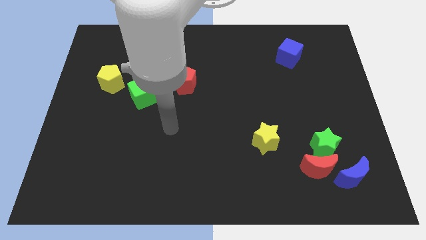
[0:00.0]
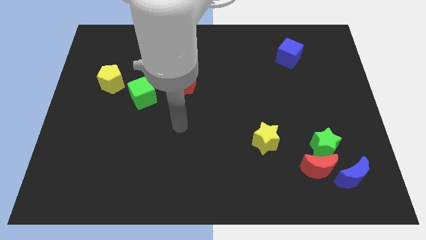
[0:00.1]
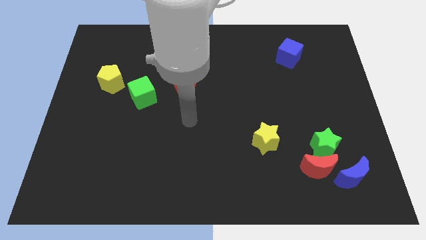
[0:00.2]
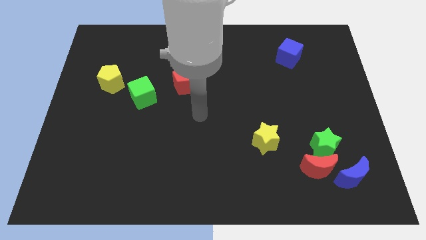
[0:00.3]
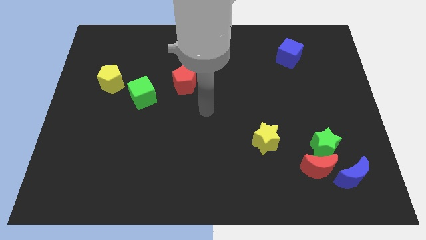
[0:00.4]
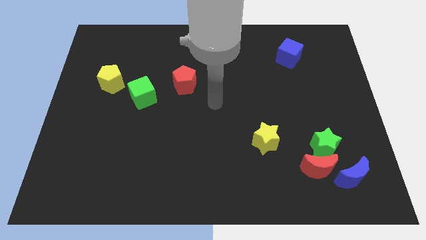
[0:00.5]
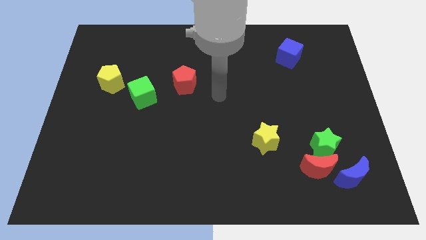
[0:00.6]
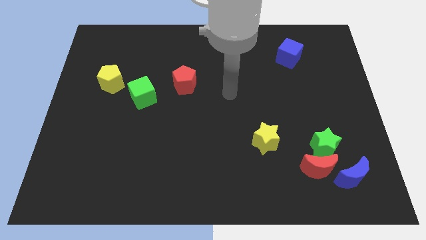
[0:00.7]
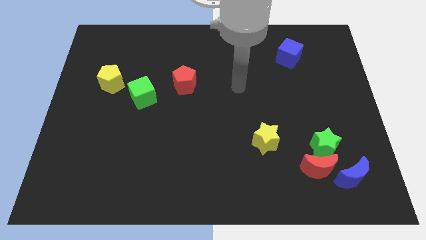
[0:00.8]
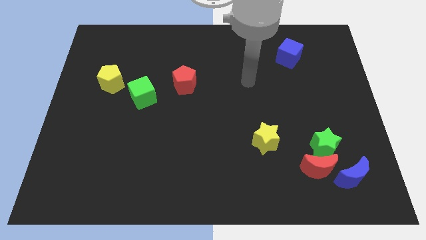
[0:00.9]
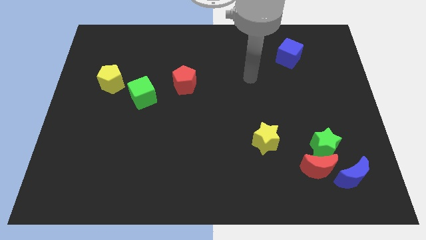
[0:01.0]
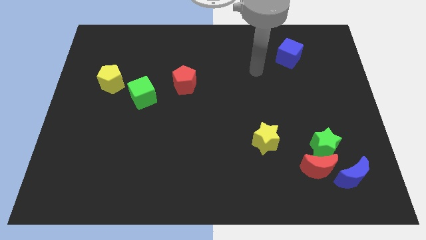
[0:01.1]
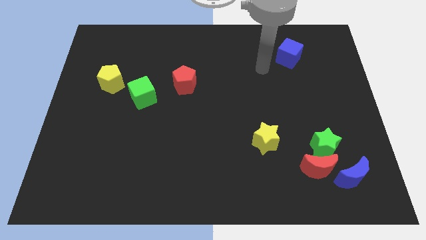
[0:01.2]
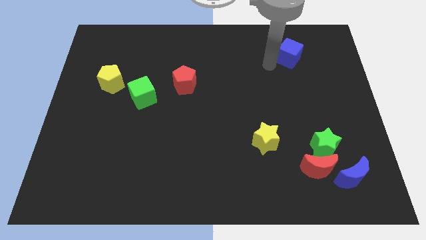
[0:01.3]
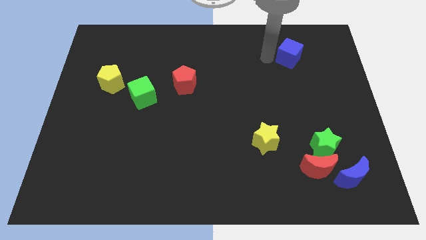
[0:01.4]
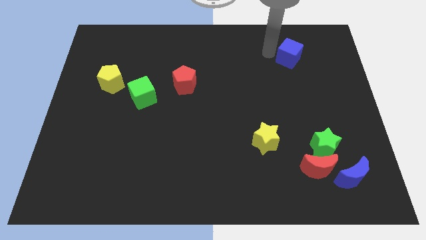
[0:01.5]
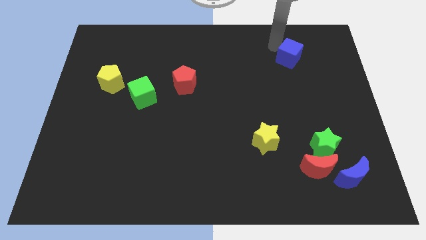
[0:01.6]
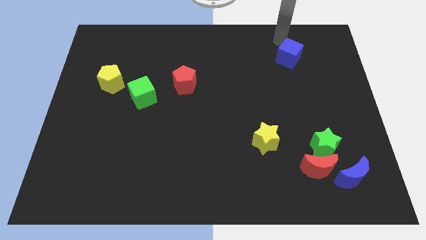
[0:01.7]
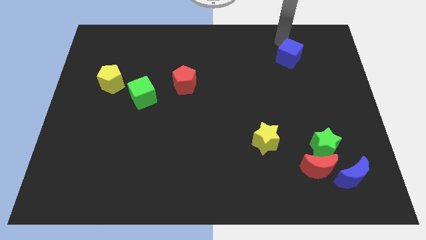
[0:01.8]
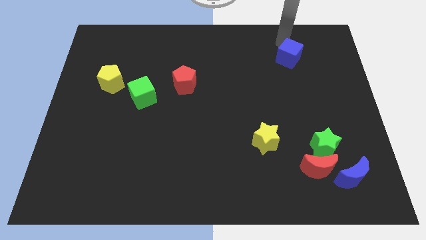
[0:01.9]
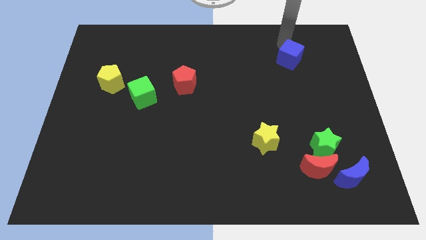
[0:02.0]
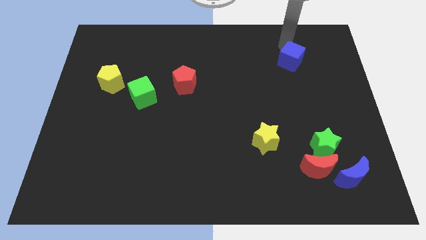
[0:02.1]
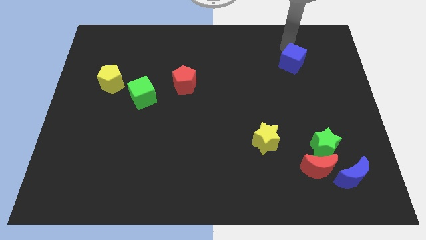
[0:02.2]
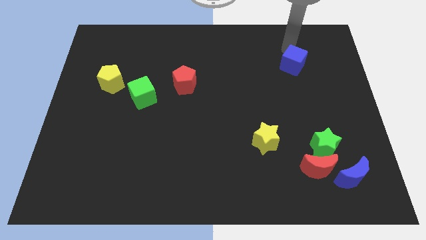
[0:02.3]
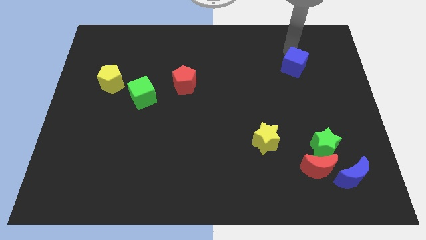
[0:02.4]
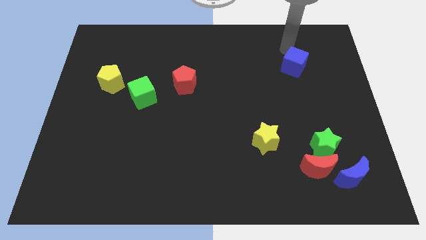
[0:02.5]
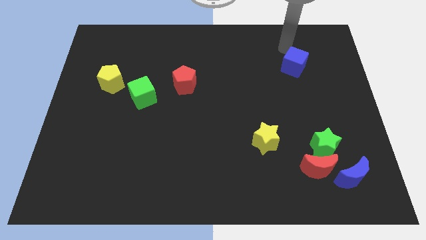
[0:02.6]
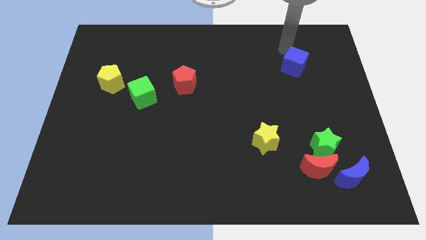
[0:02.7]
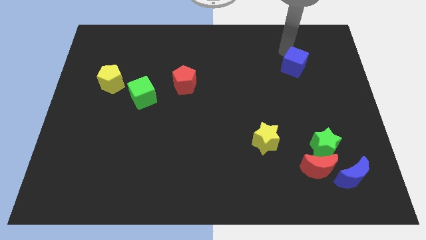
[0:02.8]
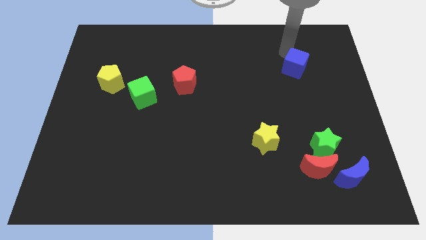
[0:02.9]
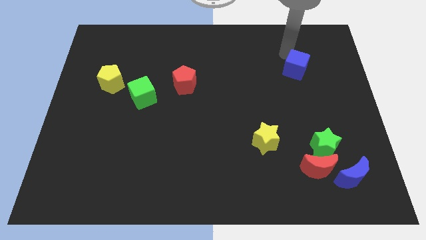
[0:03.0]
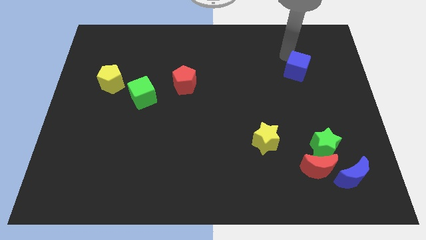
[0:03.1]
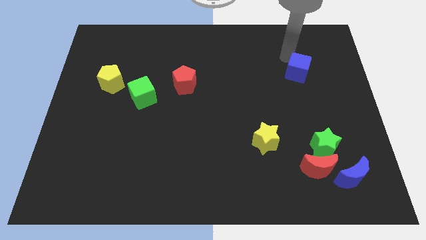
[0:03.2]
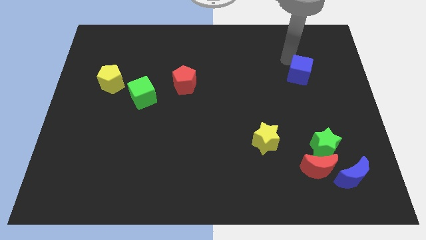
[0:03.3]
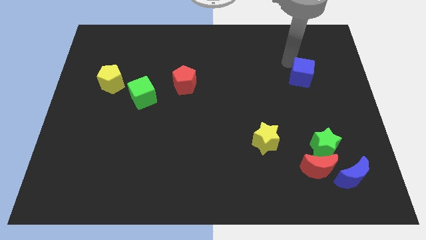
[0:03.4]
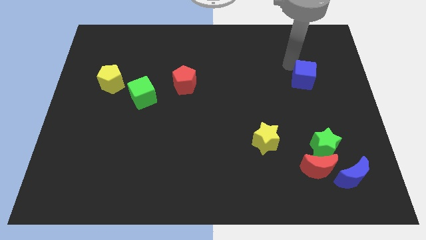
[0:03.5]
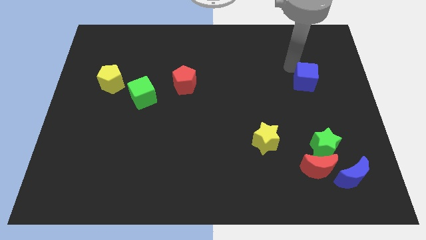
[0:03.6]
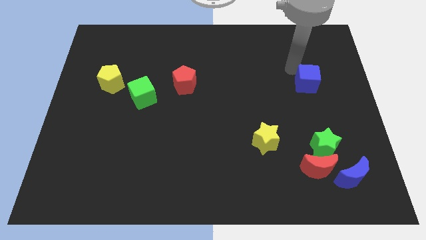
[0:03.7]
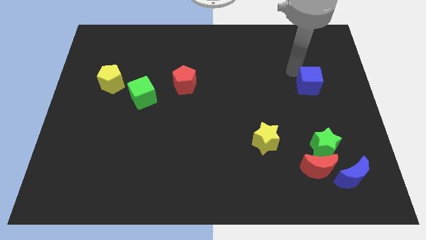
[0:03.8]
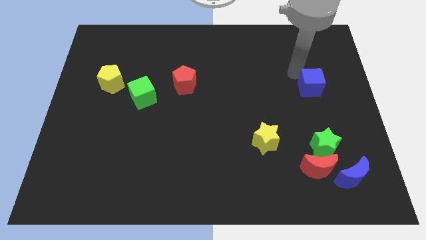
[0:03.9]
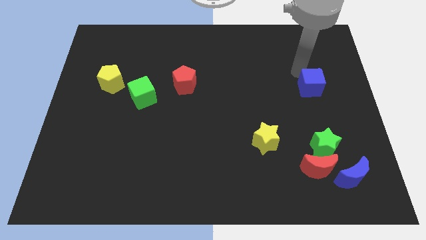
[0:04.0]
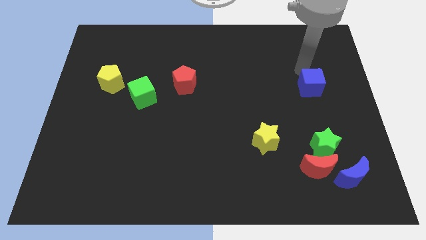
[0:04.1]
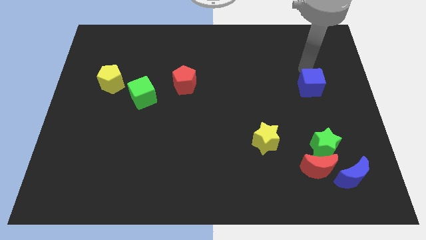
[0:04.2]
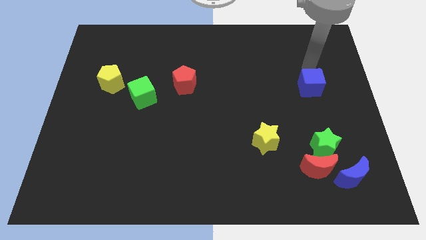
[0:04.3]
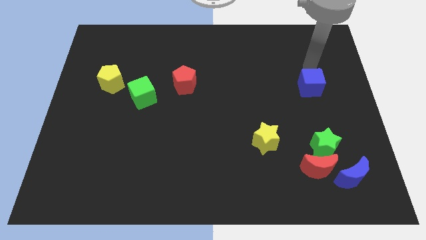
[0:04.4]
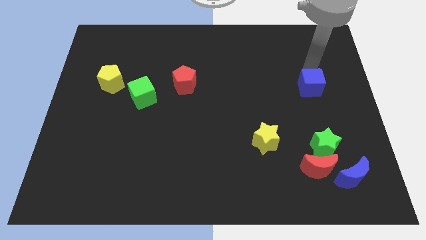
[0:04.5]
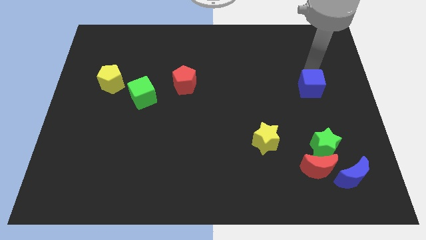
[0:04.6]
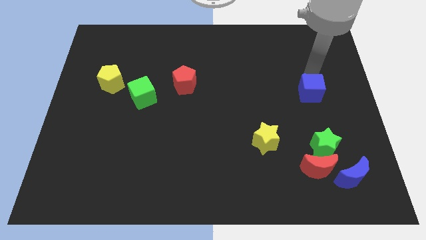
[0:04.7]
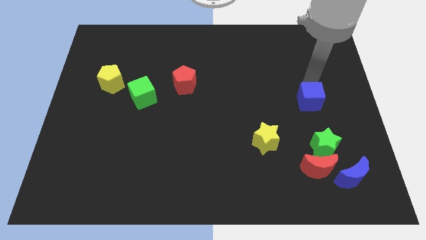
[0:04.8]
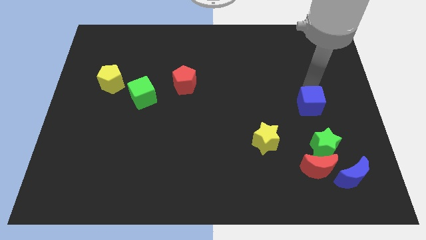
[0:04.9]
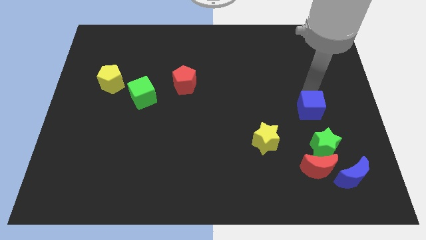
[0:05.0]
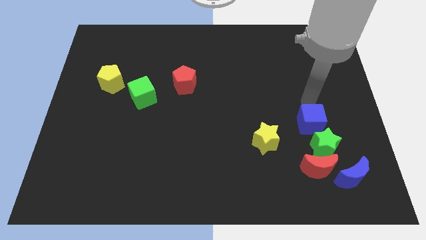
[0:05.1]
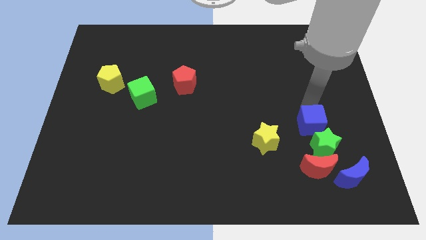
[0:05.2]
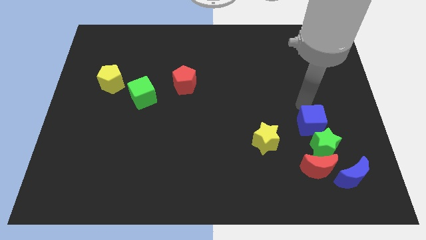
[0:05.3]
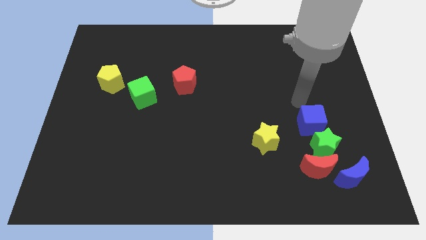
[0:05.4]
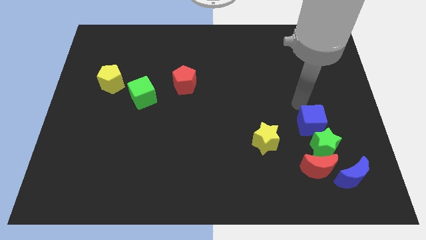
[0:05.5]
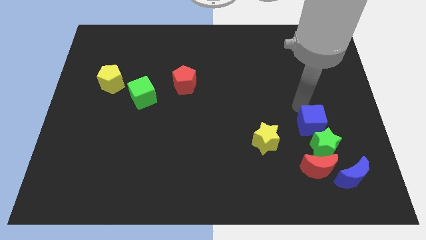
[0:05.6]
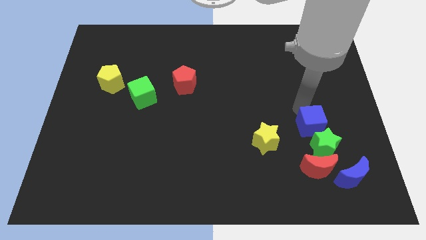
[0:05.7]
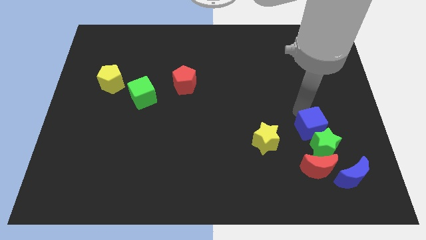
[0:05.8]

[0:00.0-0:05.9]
push the blue cube next to the green star

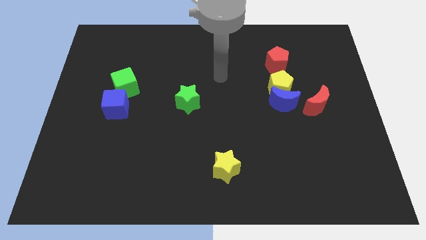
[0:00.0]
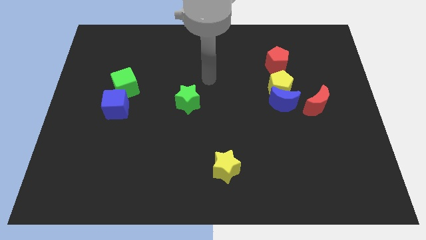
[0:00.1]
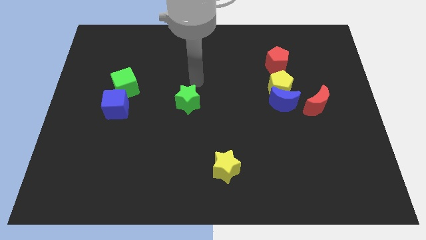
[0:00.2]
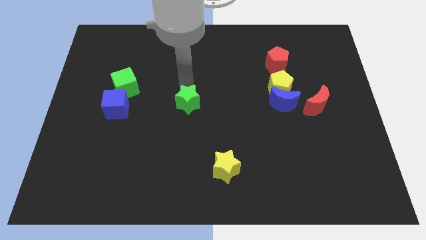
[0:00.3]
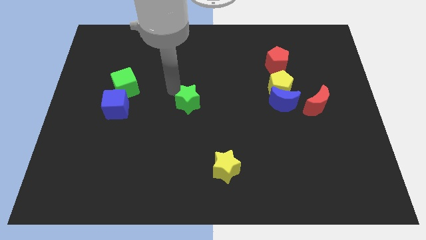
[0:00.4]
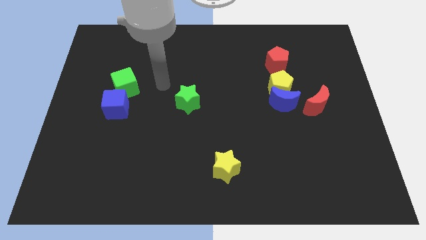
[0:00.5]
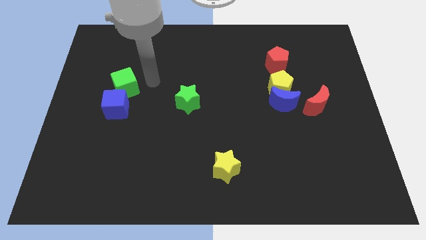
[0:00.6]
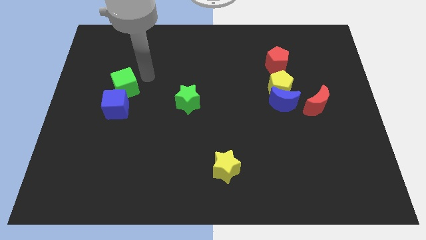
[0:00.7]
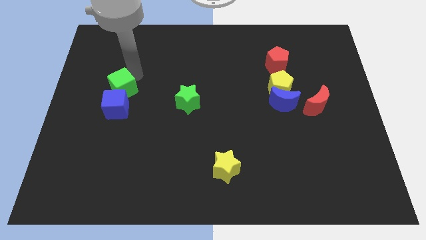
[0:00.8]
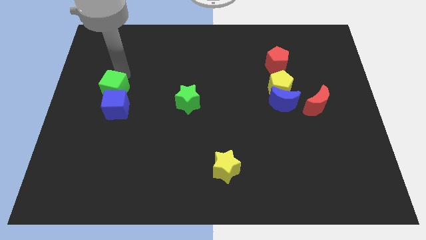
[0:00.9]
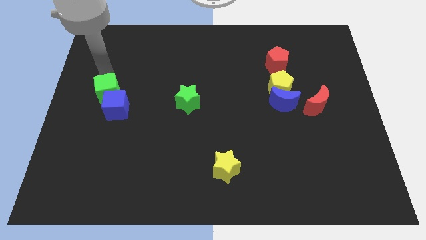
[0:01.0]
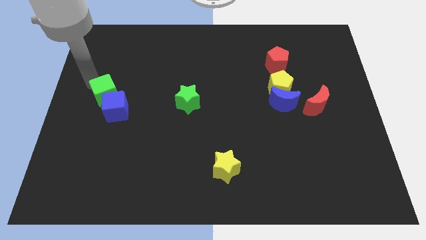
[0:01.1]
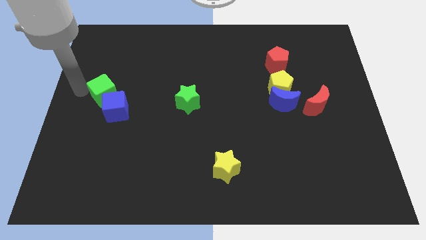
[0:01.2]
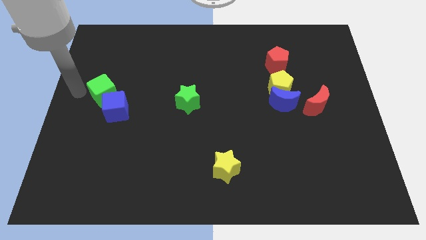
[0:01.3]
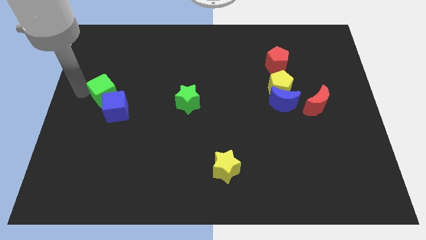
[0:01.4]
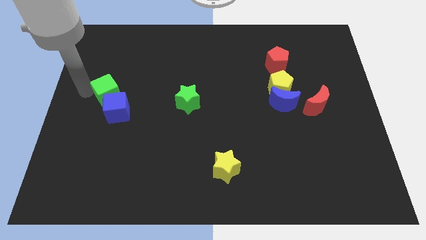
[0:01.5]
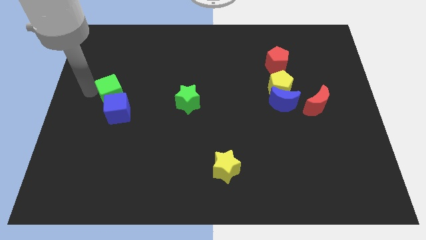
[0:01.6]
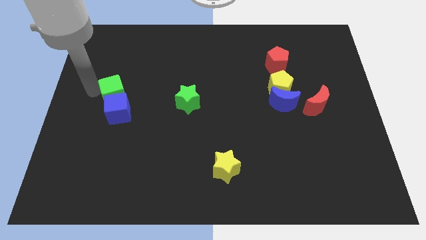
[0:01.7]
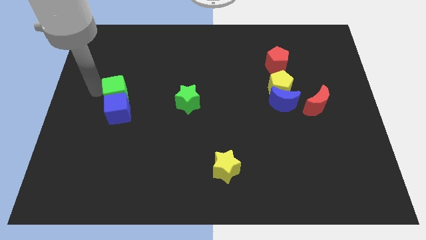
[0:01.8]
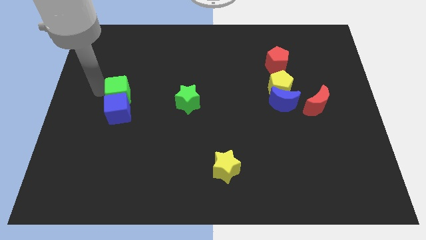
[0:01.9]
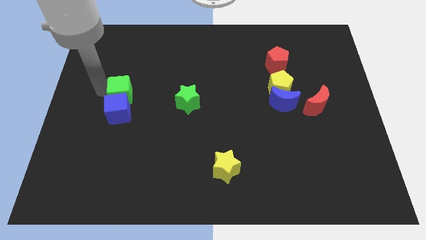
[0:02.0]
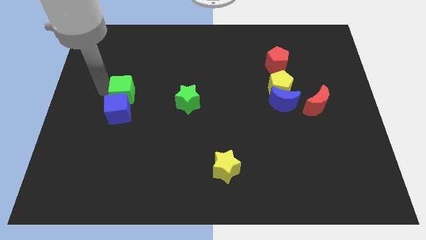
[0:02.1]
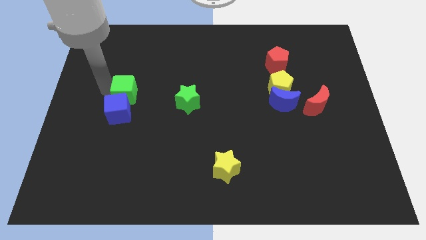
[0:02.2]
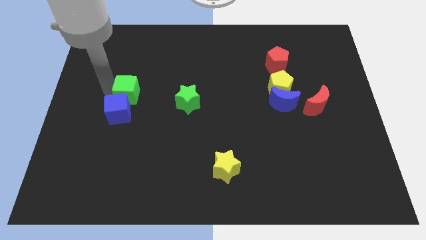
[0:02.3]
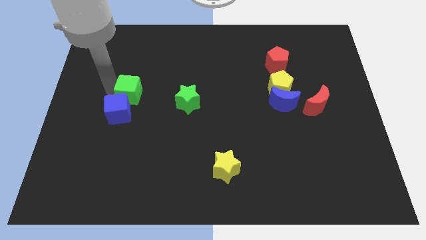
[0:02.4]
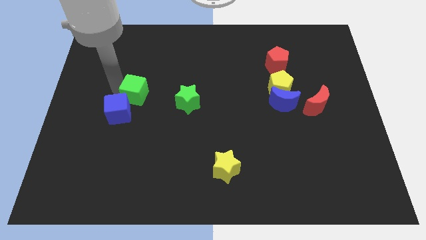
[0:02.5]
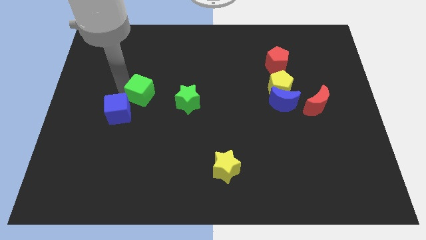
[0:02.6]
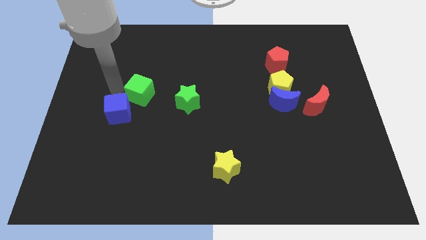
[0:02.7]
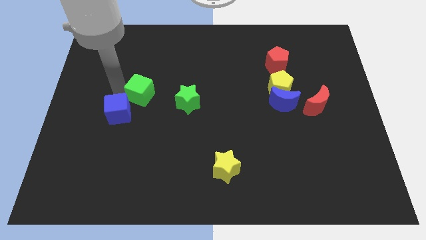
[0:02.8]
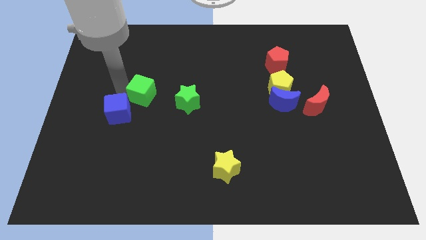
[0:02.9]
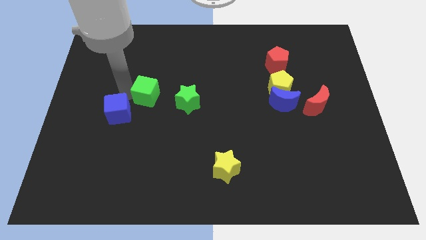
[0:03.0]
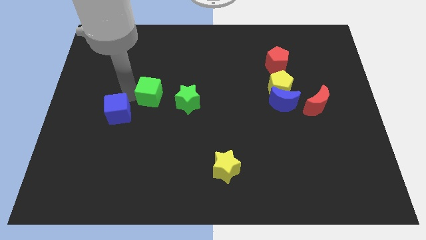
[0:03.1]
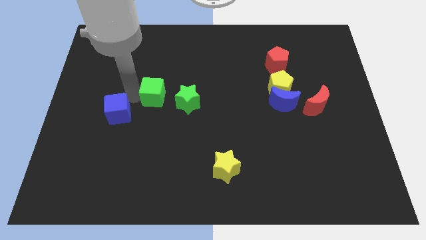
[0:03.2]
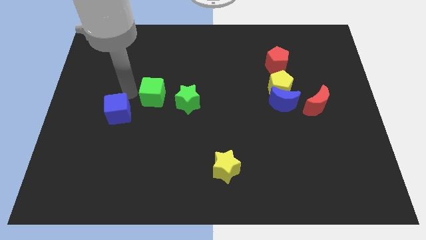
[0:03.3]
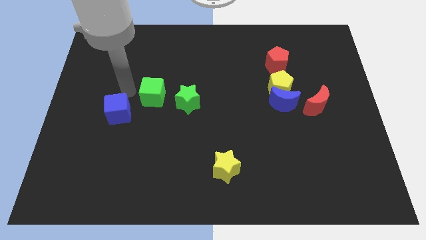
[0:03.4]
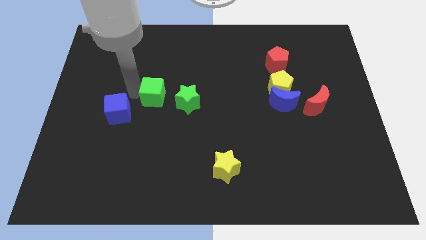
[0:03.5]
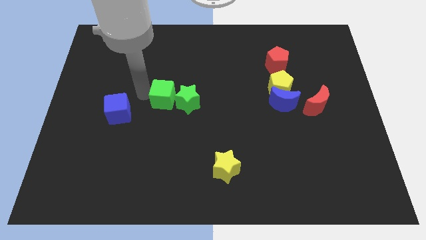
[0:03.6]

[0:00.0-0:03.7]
put the green cube towards the green star
